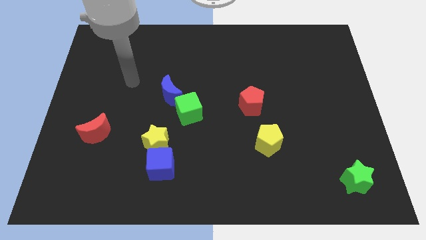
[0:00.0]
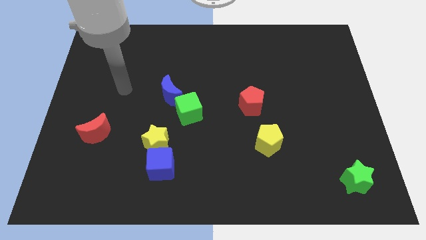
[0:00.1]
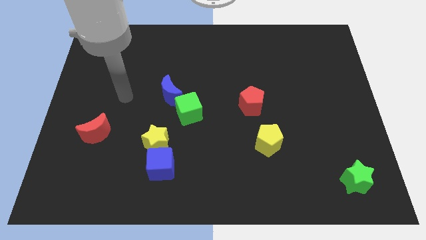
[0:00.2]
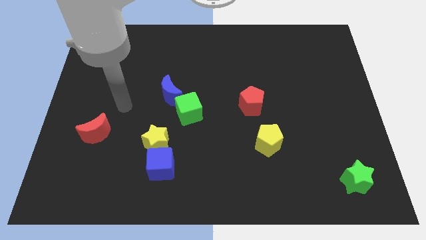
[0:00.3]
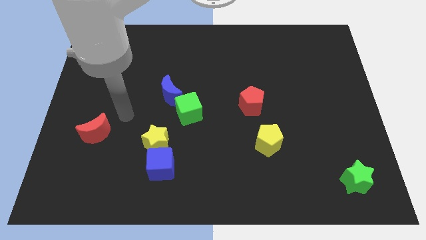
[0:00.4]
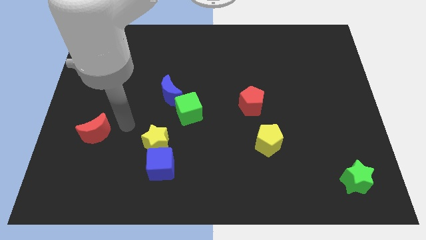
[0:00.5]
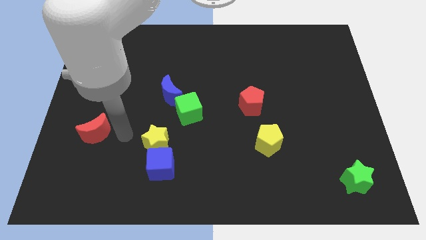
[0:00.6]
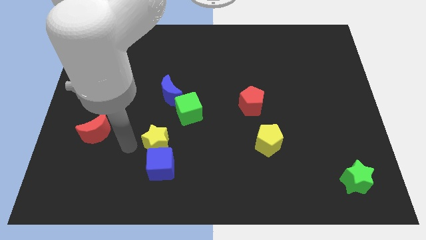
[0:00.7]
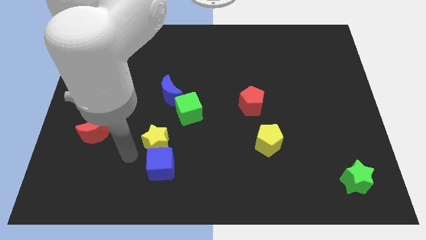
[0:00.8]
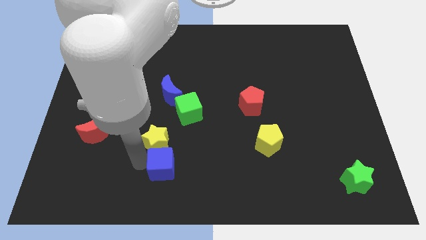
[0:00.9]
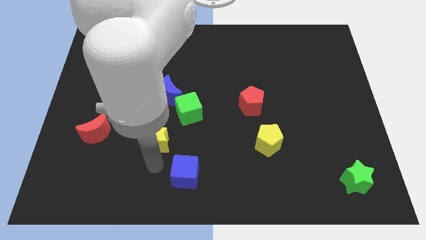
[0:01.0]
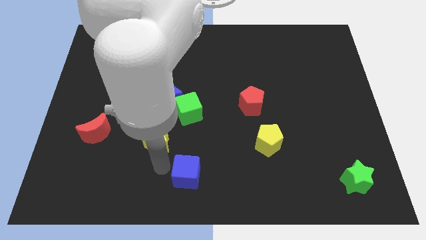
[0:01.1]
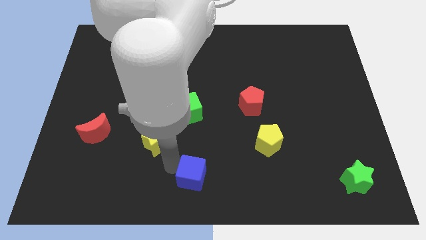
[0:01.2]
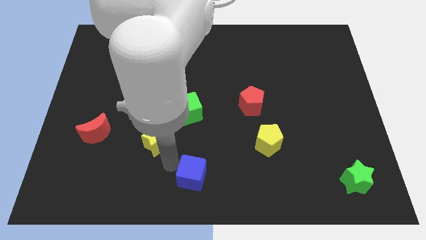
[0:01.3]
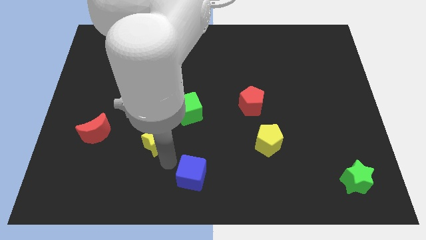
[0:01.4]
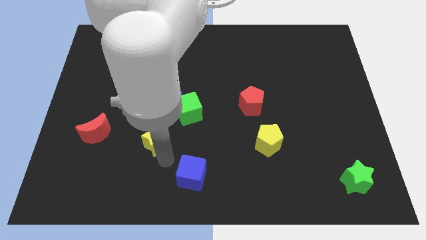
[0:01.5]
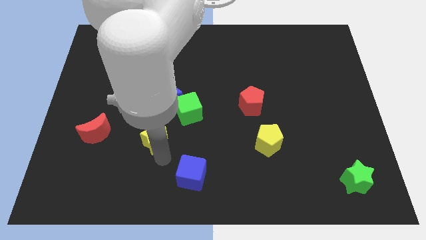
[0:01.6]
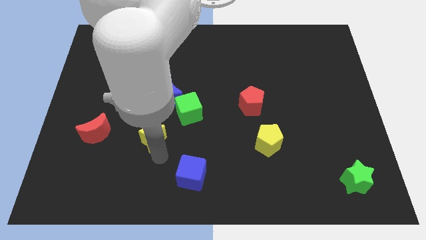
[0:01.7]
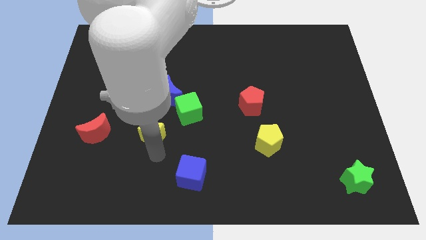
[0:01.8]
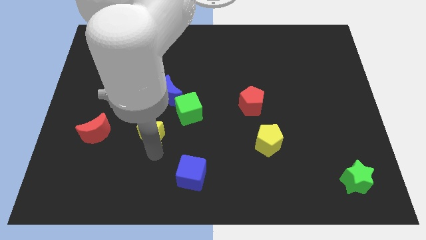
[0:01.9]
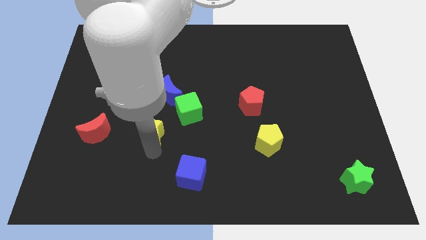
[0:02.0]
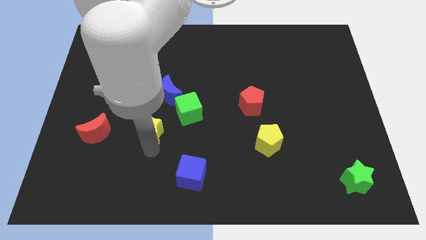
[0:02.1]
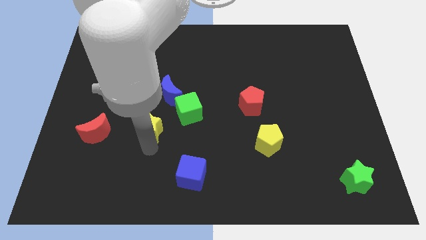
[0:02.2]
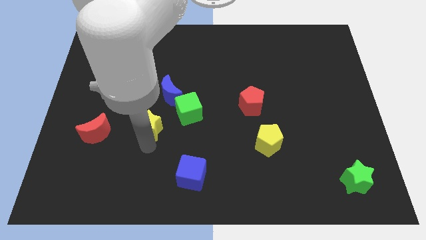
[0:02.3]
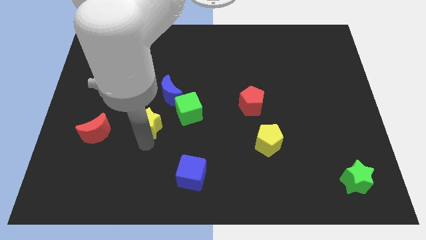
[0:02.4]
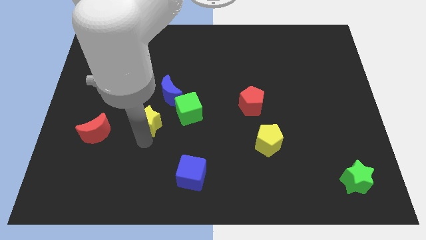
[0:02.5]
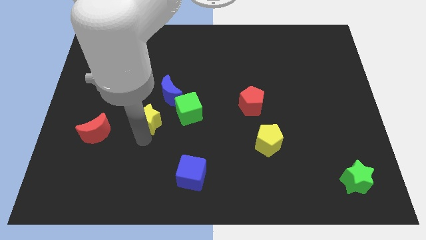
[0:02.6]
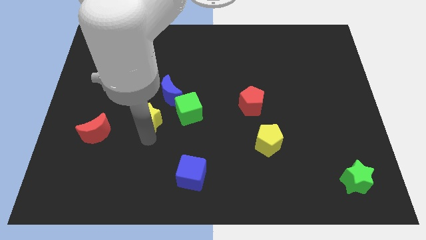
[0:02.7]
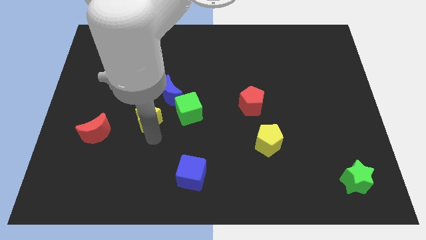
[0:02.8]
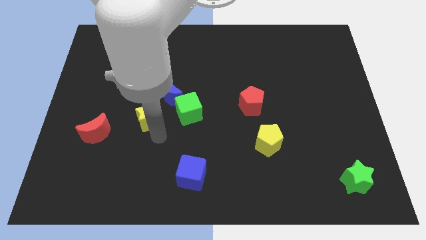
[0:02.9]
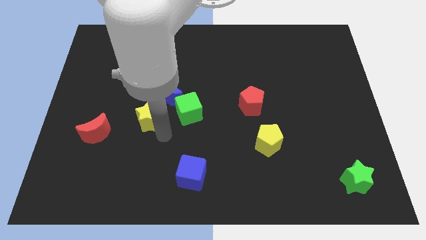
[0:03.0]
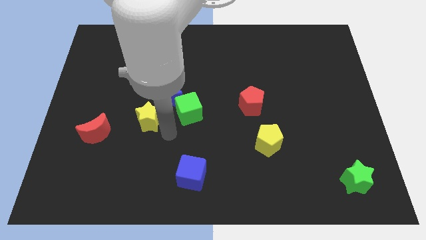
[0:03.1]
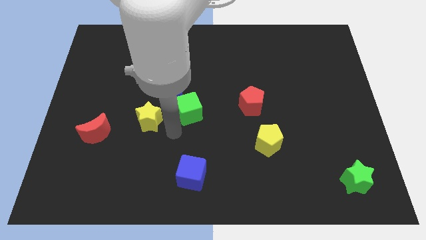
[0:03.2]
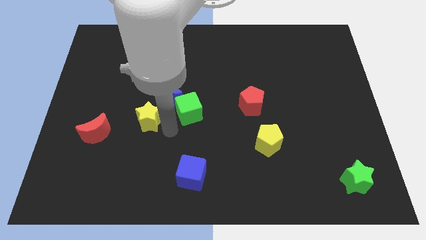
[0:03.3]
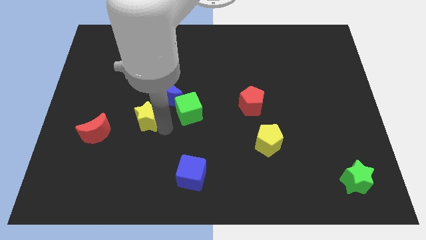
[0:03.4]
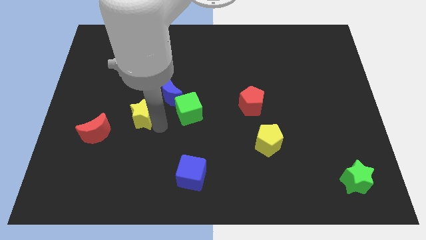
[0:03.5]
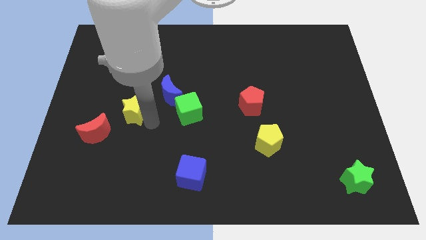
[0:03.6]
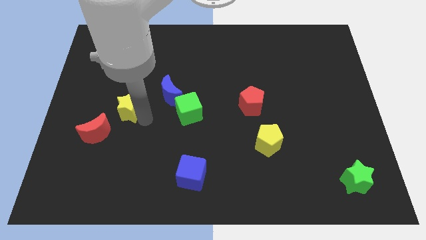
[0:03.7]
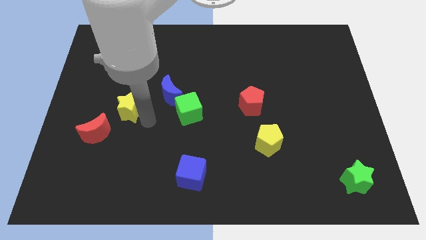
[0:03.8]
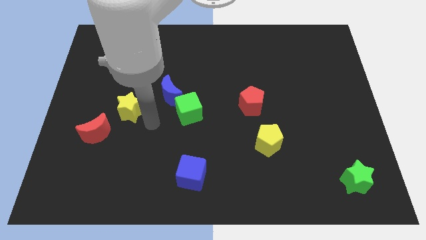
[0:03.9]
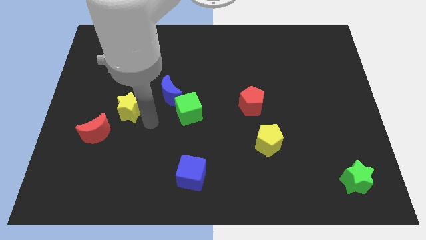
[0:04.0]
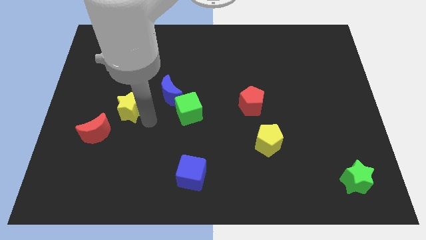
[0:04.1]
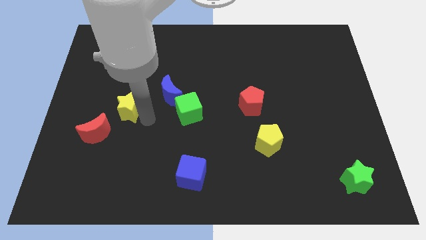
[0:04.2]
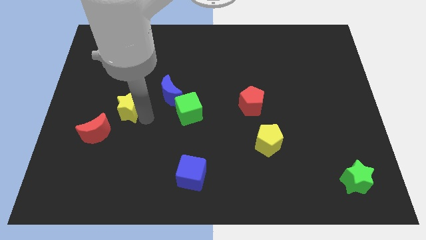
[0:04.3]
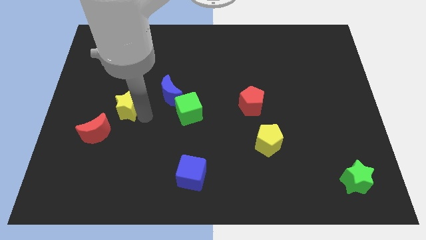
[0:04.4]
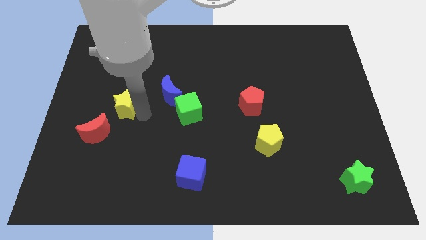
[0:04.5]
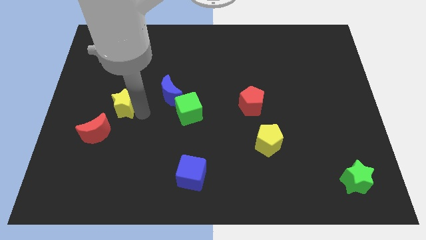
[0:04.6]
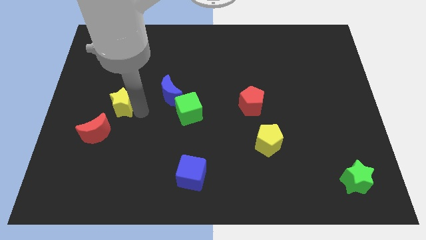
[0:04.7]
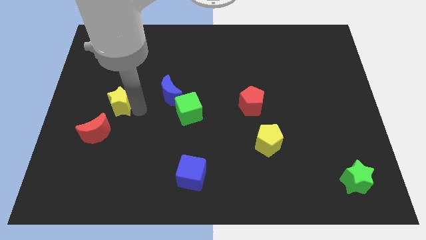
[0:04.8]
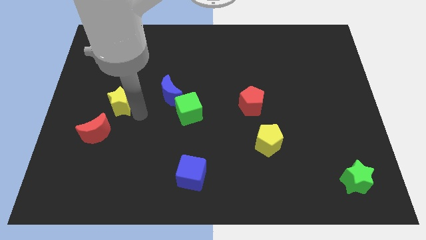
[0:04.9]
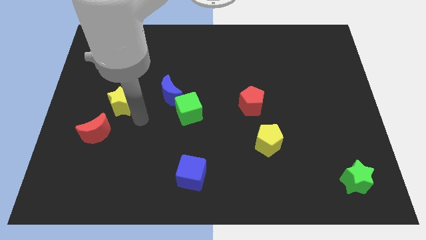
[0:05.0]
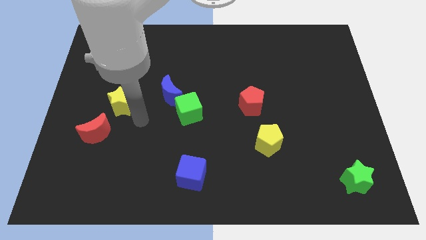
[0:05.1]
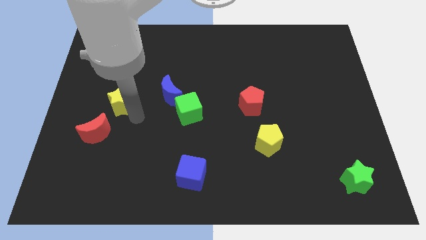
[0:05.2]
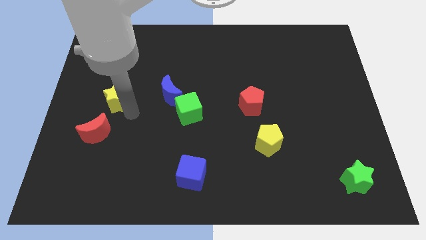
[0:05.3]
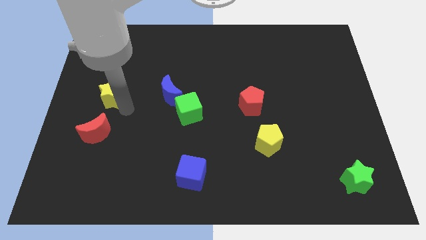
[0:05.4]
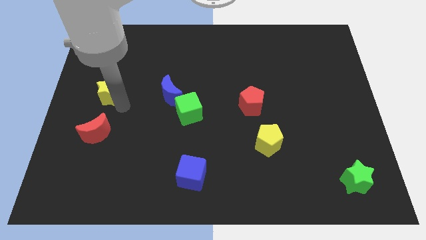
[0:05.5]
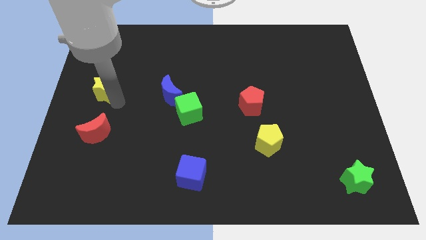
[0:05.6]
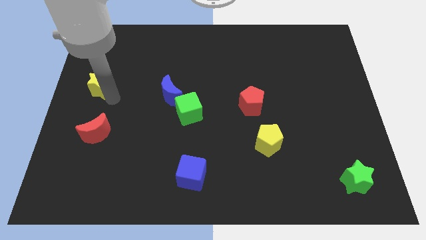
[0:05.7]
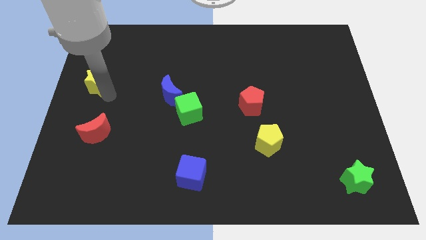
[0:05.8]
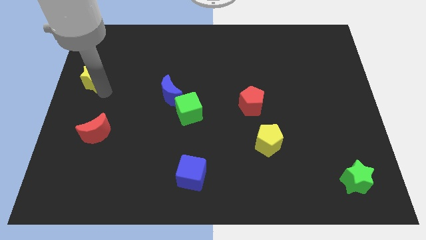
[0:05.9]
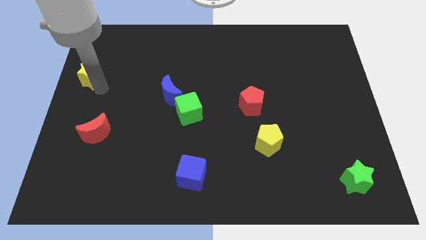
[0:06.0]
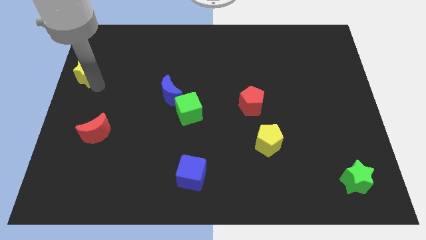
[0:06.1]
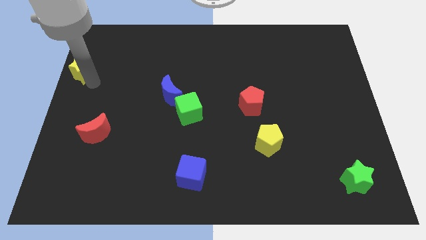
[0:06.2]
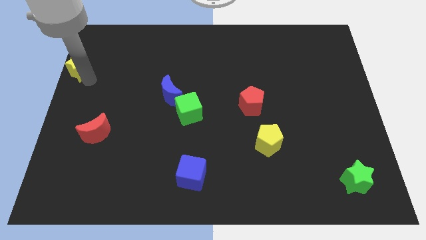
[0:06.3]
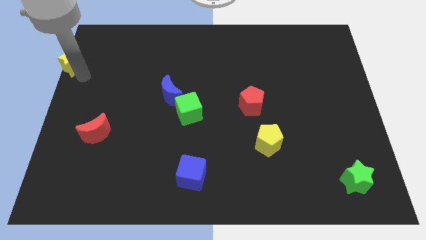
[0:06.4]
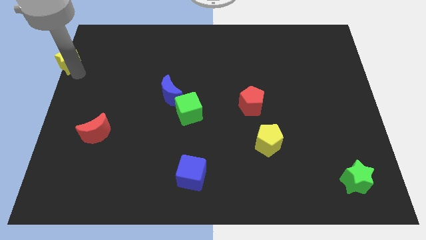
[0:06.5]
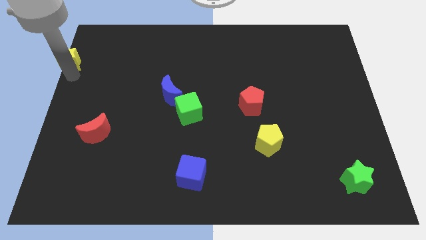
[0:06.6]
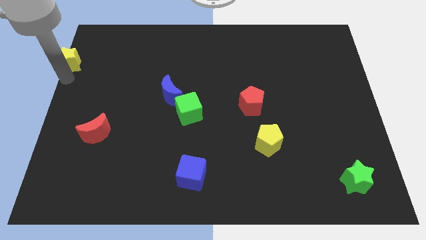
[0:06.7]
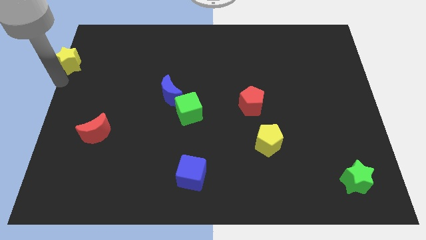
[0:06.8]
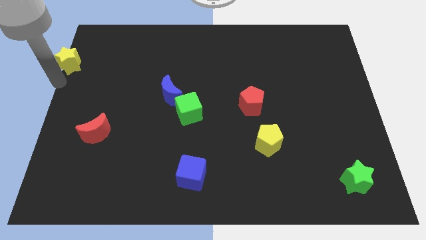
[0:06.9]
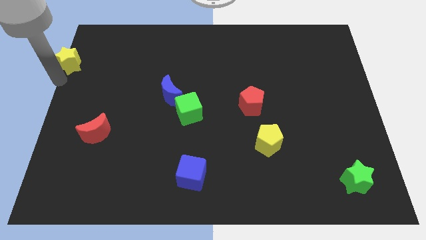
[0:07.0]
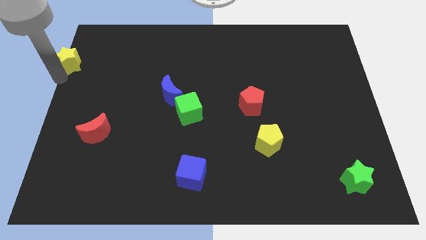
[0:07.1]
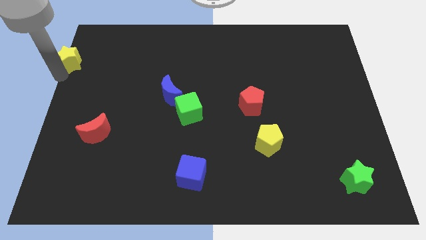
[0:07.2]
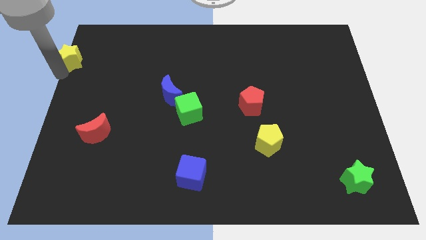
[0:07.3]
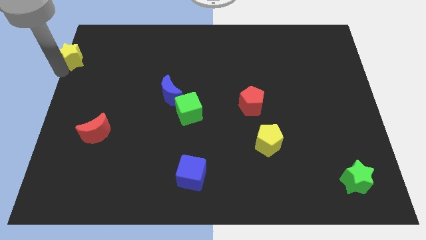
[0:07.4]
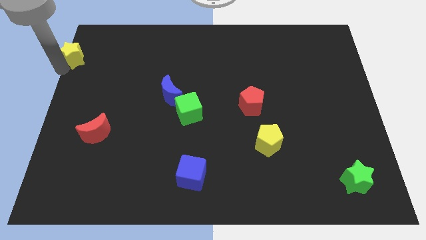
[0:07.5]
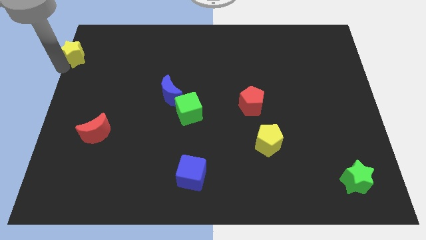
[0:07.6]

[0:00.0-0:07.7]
slide the yellow star to the top left of the board
